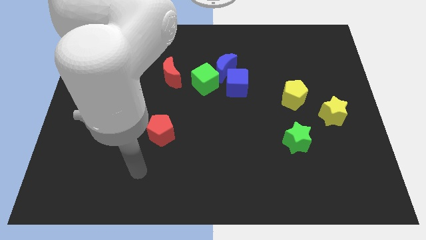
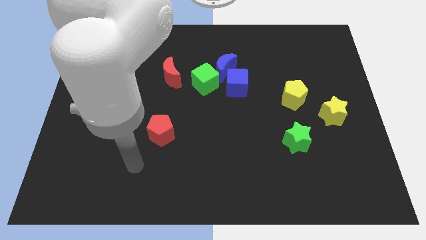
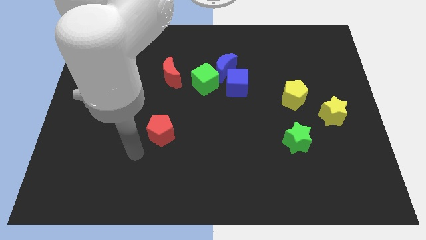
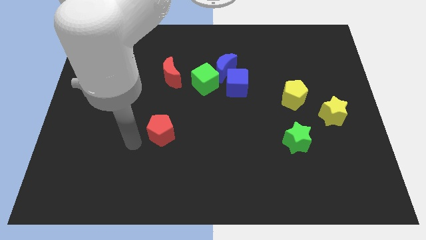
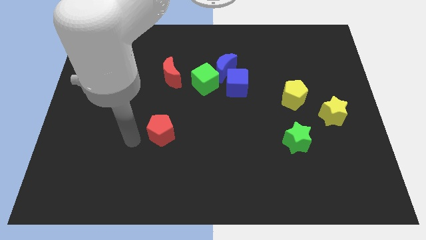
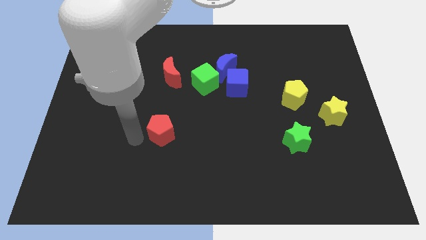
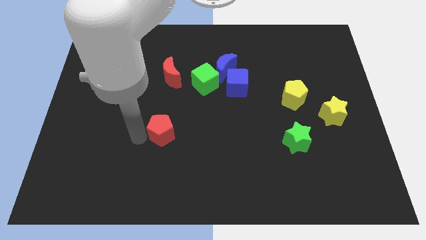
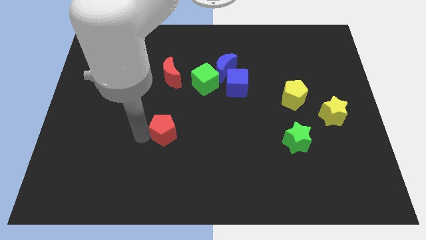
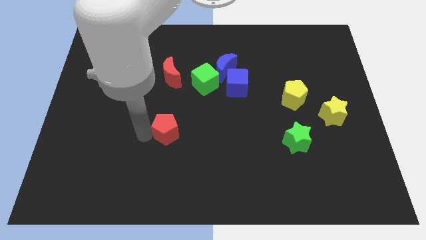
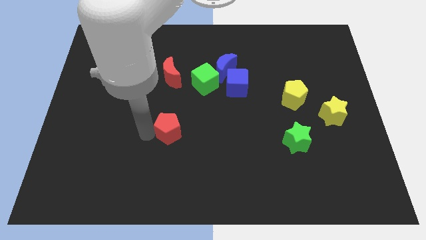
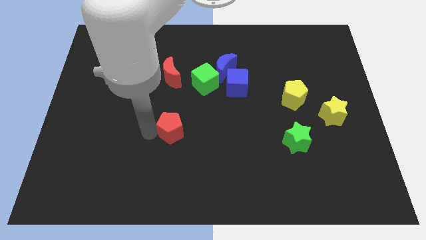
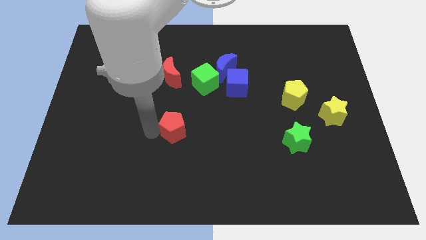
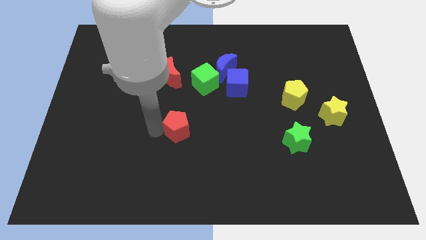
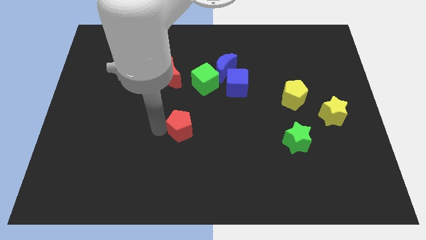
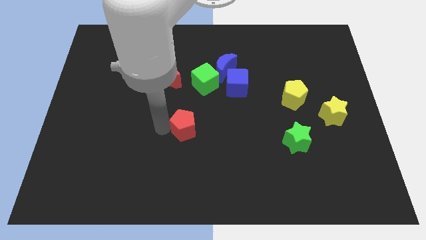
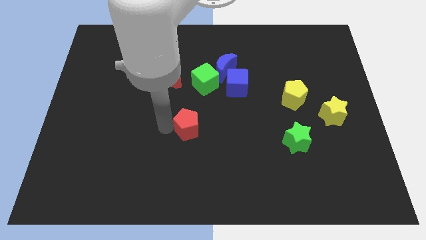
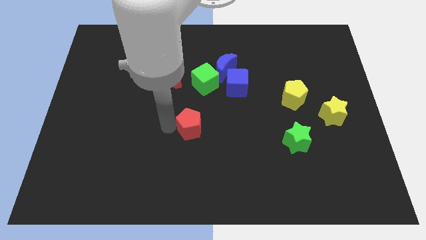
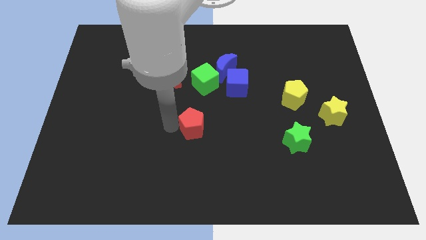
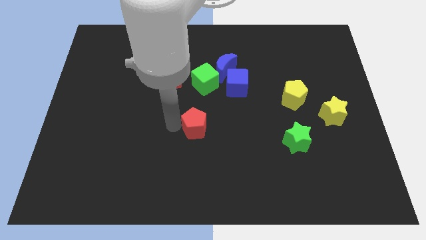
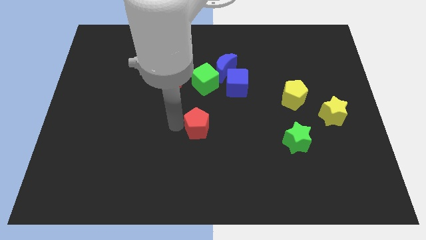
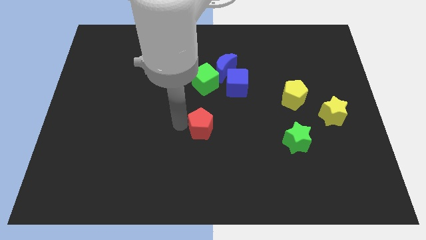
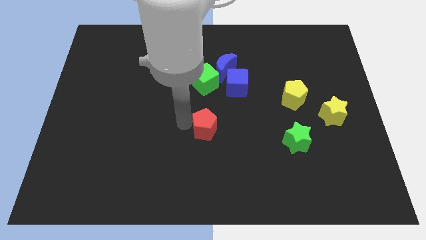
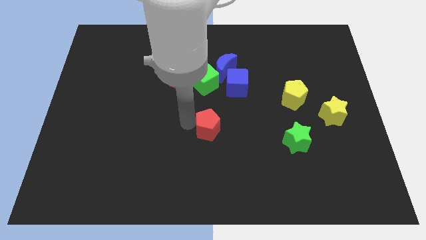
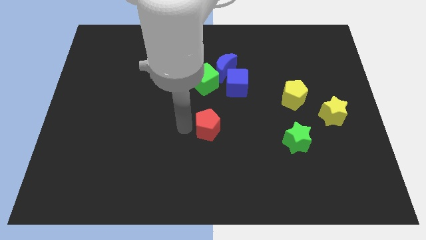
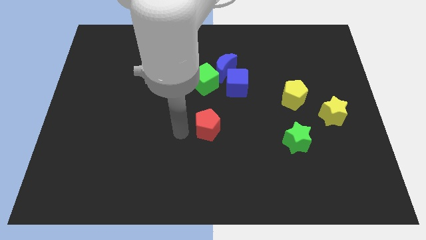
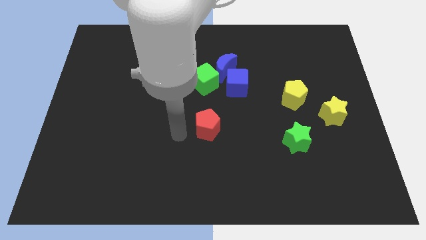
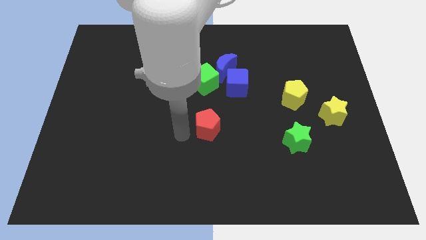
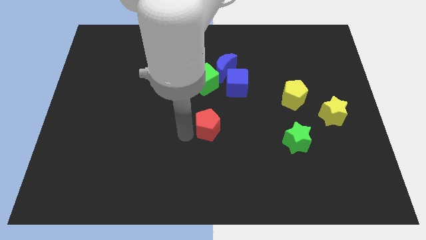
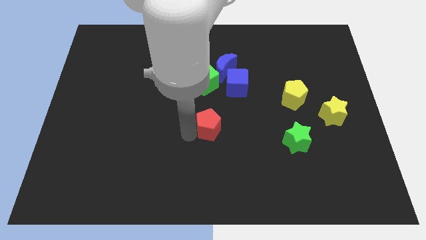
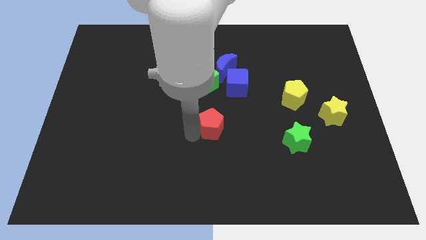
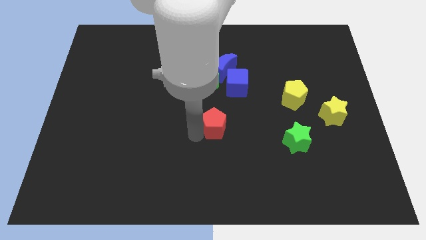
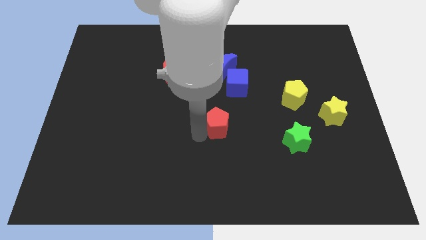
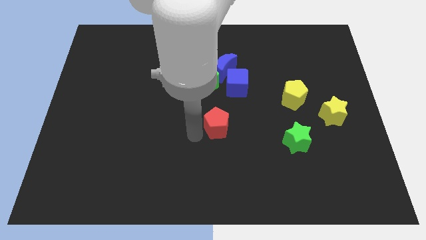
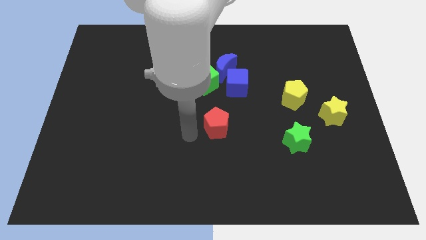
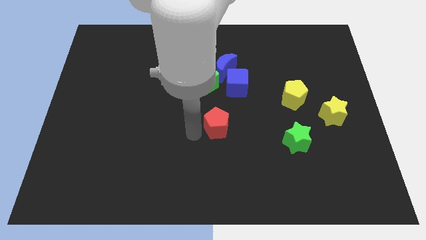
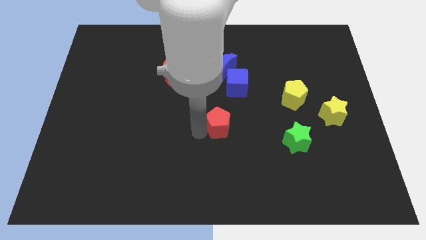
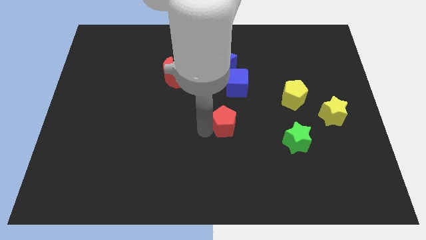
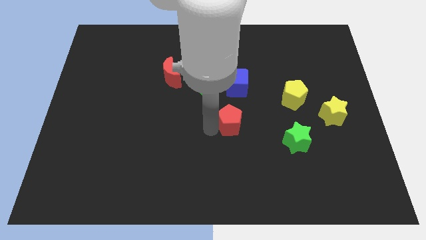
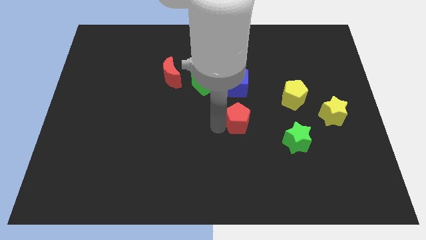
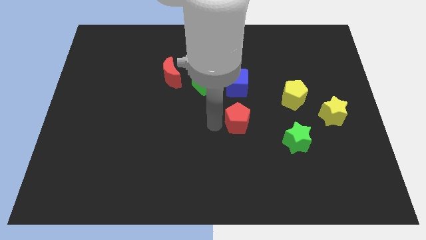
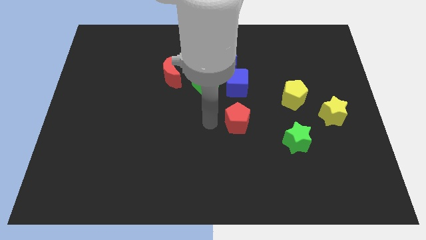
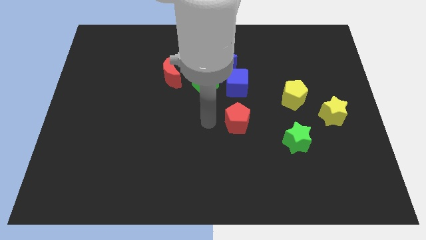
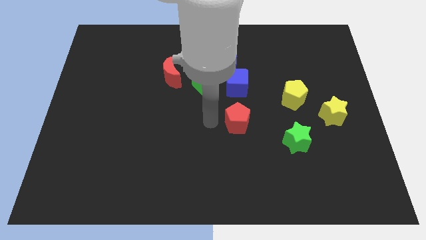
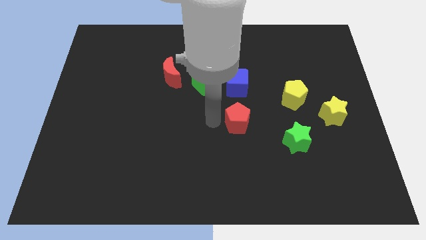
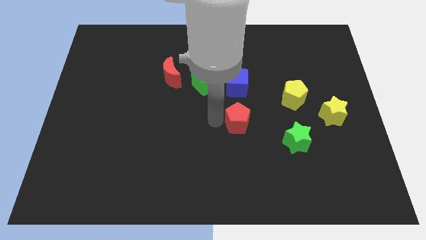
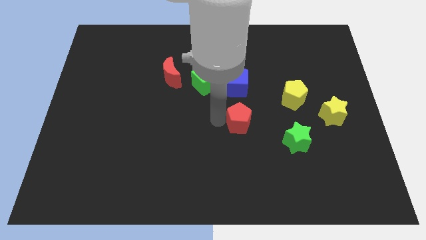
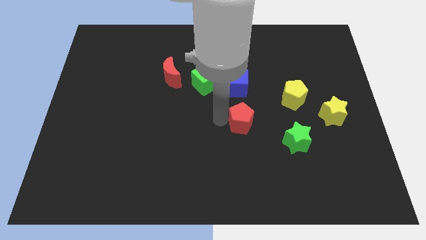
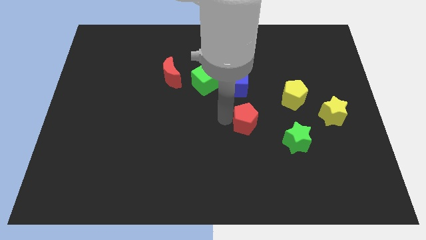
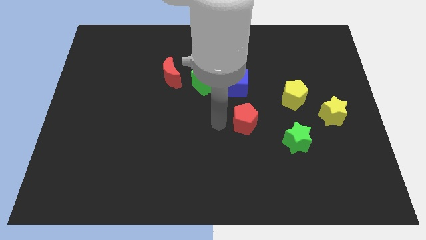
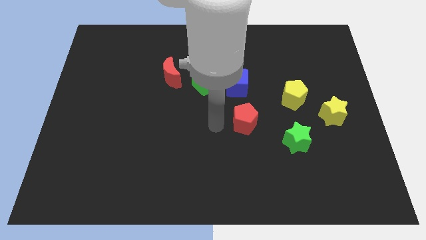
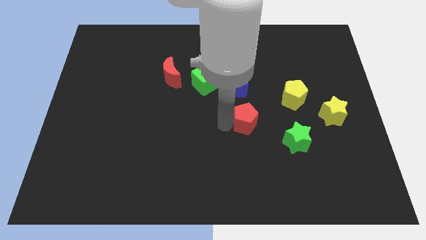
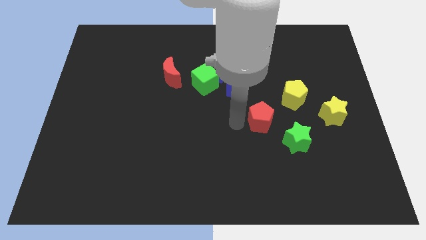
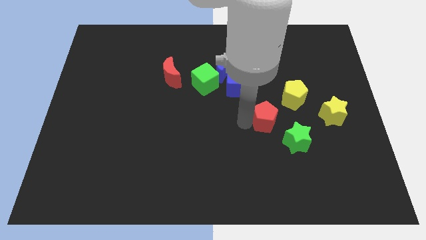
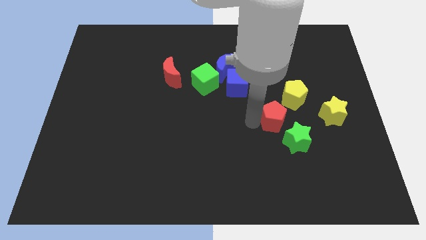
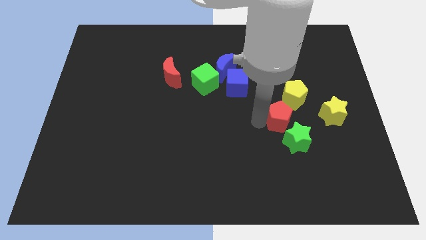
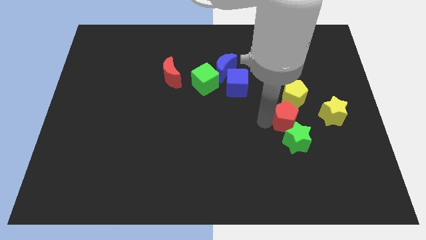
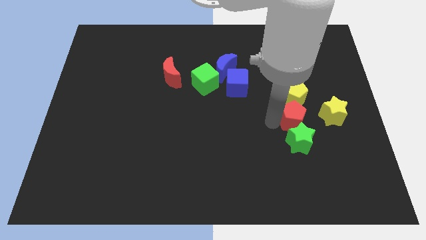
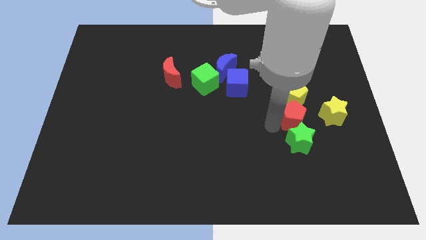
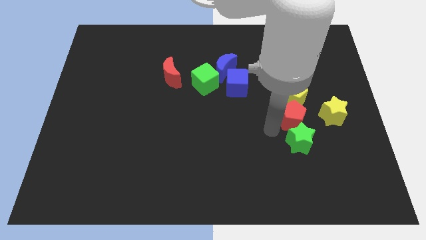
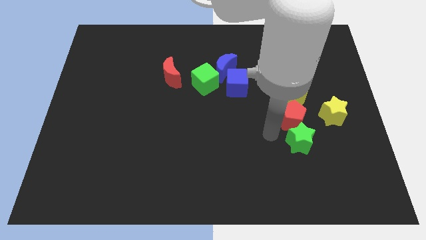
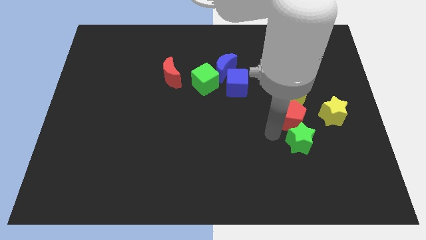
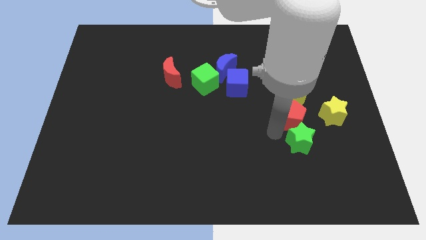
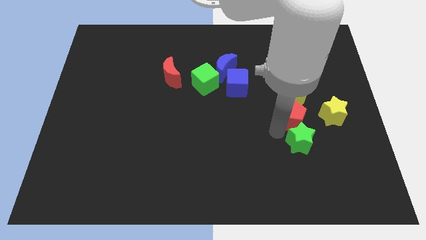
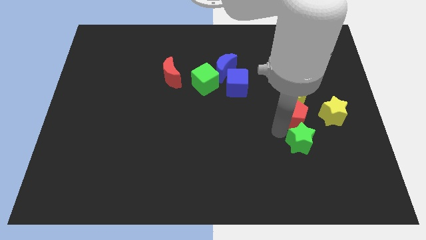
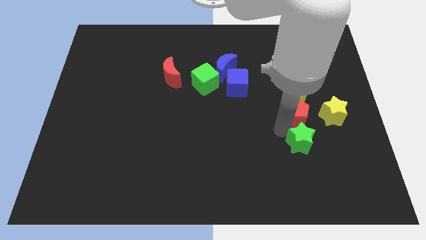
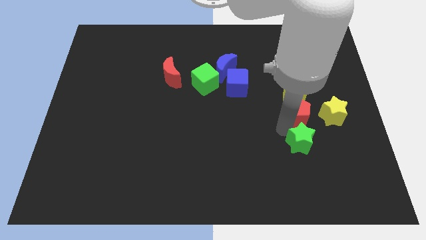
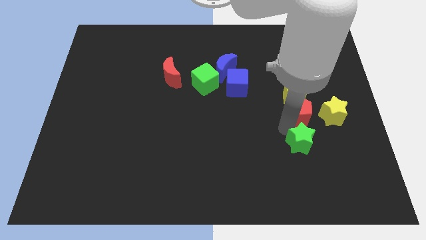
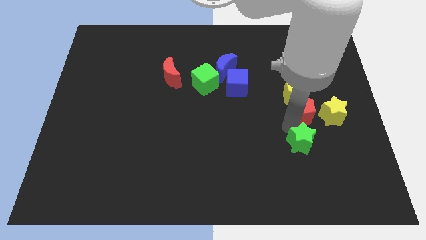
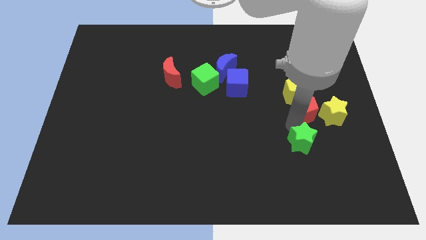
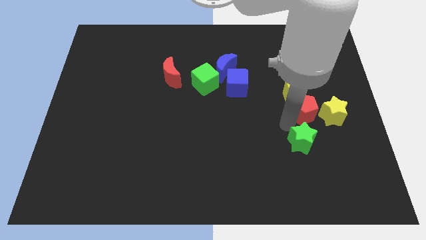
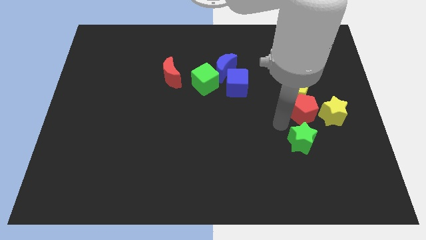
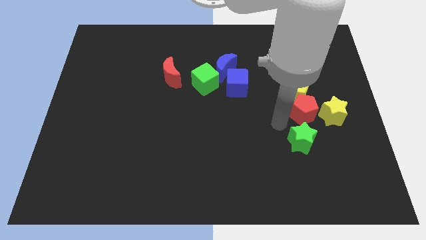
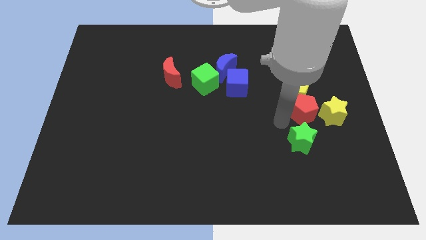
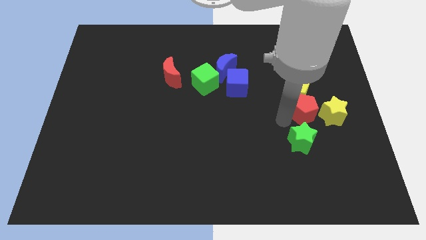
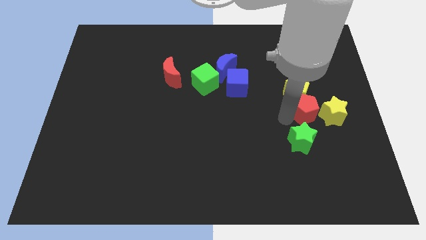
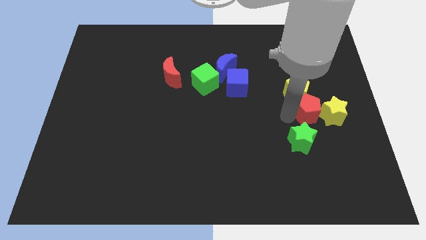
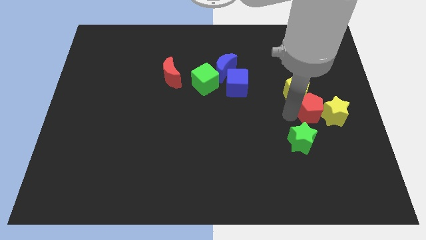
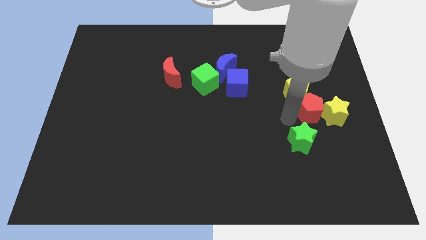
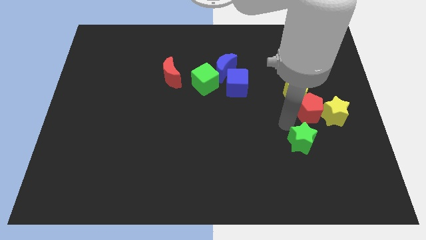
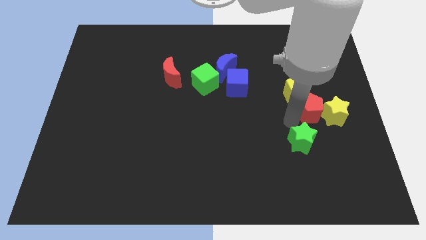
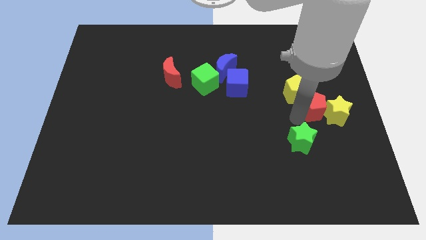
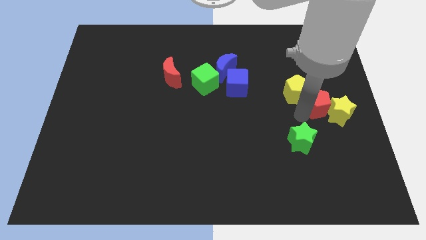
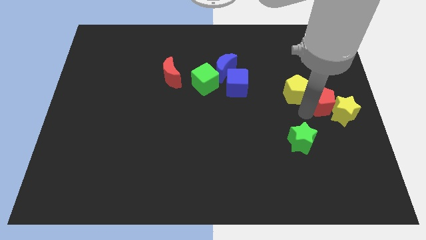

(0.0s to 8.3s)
move the red pentagon to the right side
